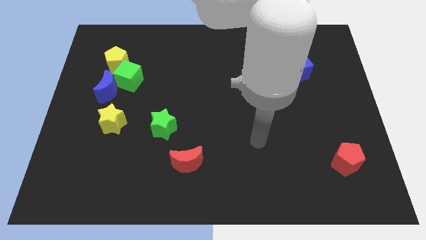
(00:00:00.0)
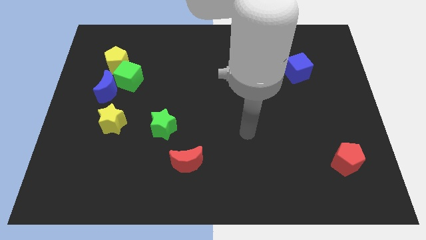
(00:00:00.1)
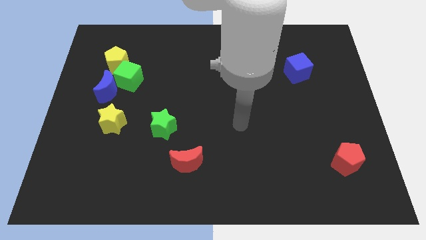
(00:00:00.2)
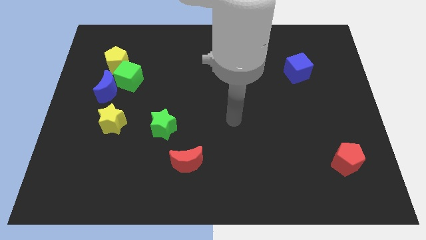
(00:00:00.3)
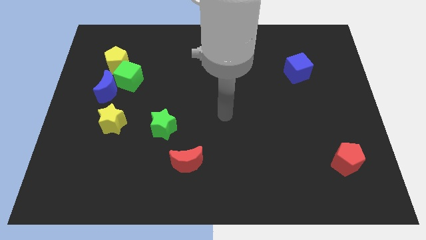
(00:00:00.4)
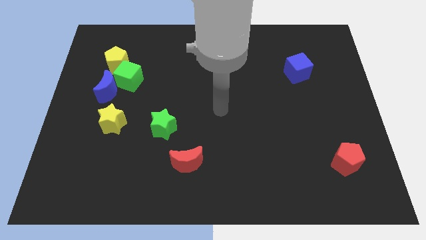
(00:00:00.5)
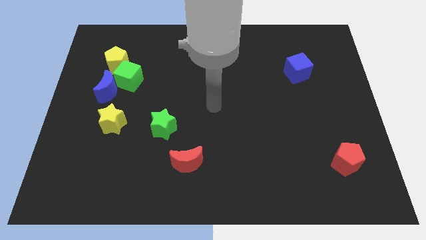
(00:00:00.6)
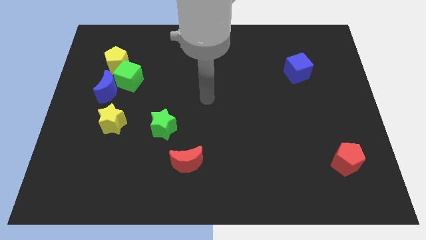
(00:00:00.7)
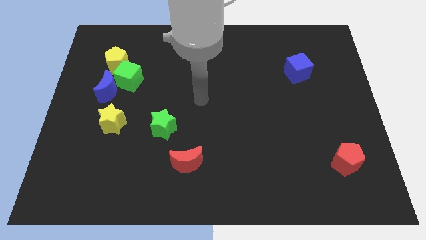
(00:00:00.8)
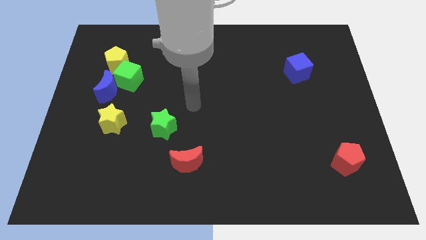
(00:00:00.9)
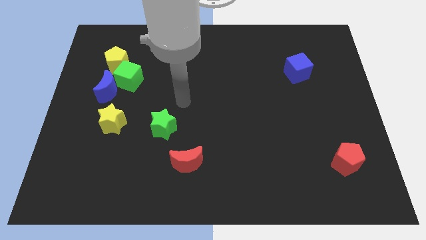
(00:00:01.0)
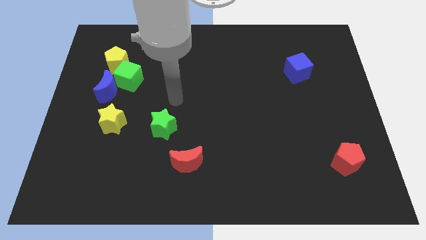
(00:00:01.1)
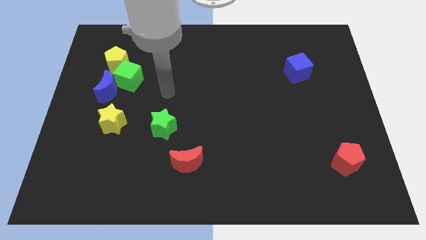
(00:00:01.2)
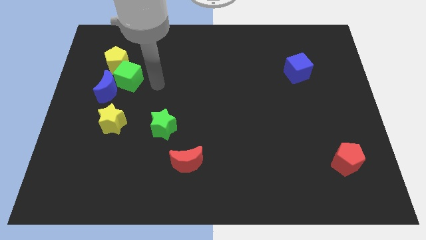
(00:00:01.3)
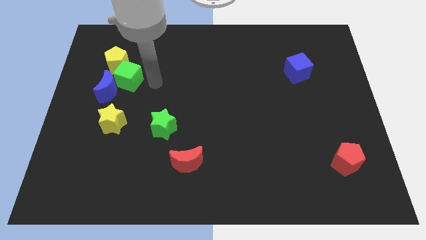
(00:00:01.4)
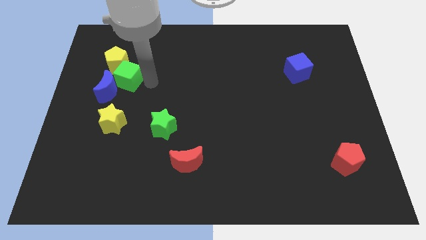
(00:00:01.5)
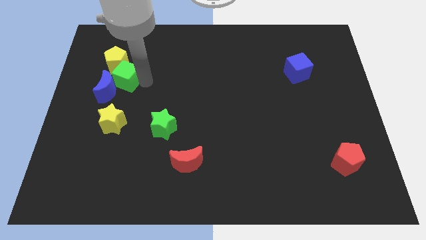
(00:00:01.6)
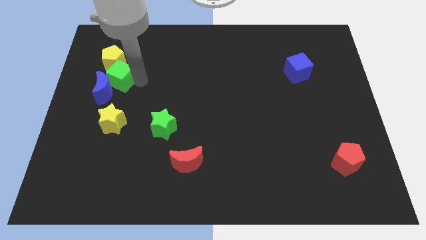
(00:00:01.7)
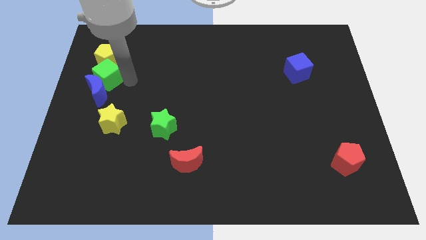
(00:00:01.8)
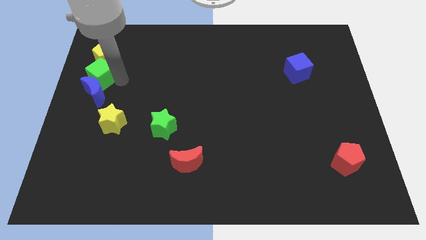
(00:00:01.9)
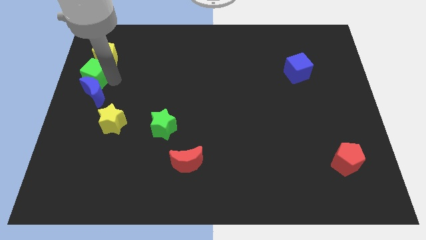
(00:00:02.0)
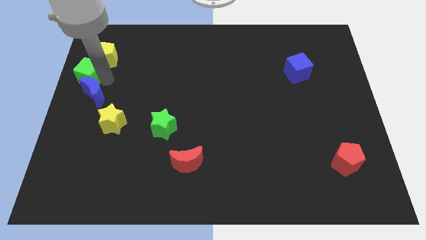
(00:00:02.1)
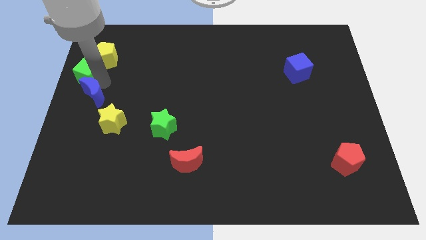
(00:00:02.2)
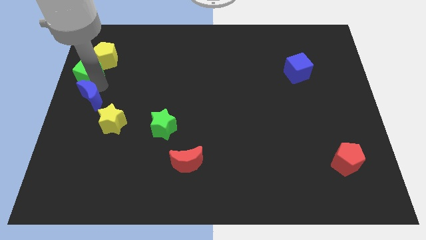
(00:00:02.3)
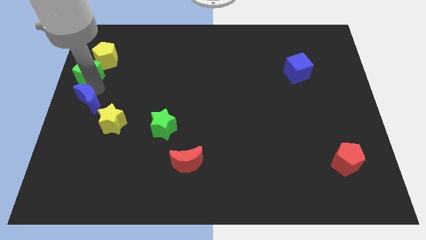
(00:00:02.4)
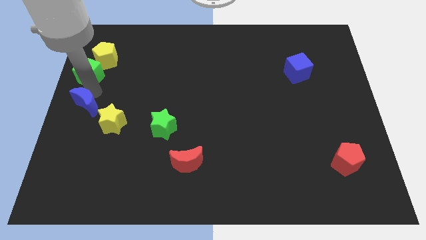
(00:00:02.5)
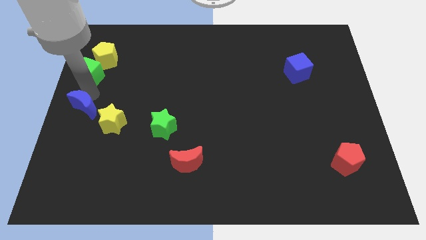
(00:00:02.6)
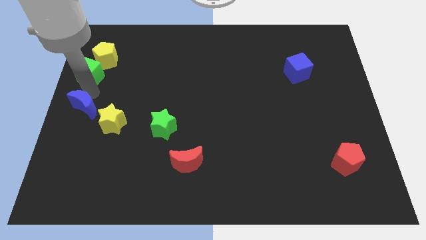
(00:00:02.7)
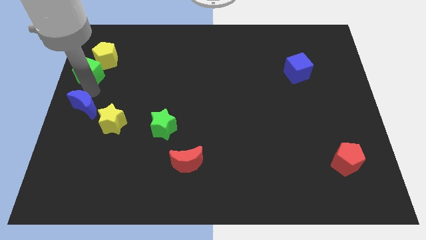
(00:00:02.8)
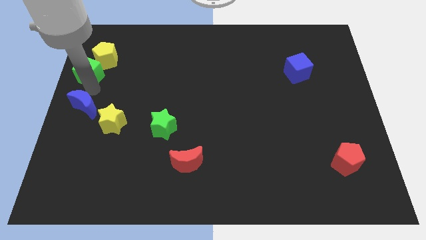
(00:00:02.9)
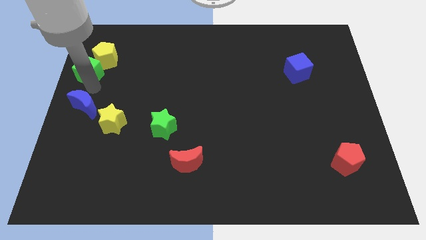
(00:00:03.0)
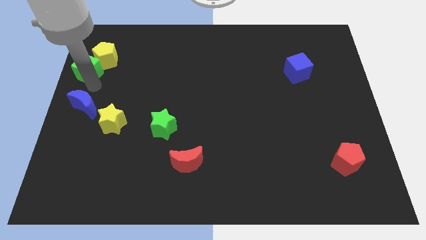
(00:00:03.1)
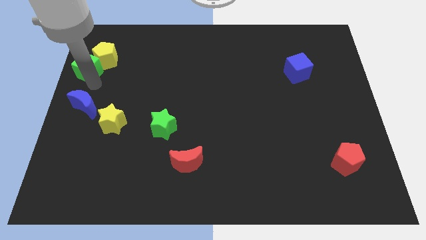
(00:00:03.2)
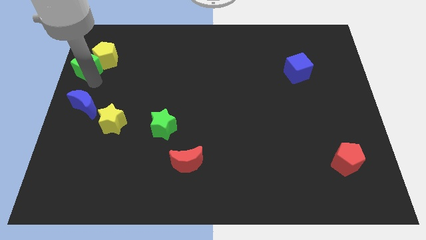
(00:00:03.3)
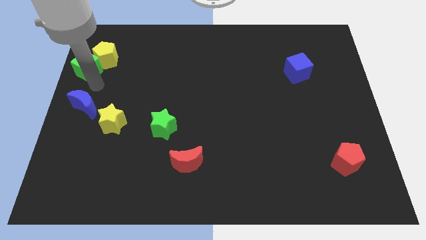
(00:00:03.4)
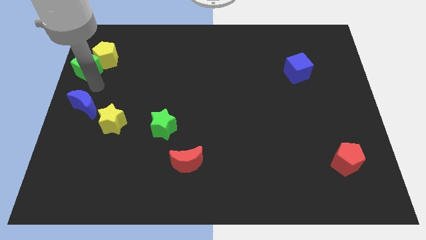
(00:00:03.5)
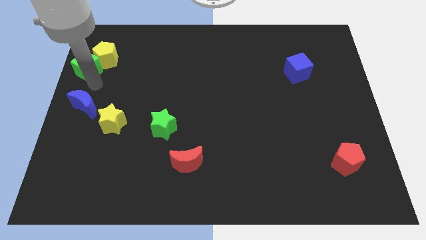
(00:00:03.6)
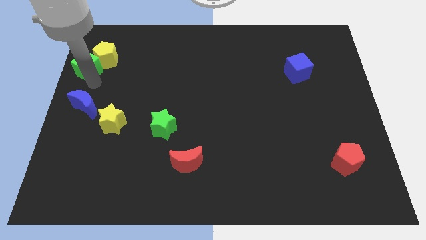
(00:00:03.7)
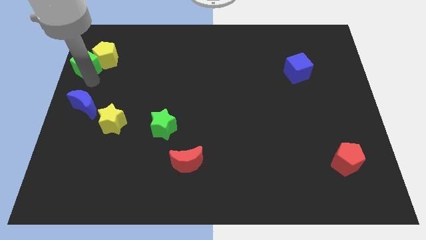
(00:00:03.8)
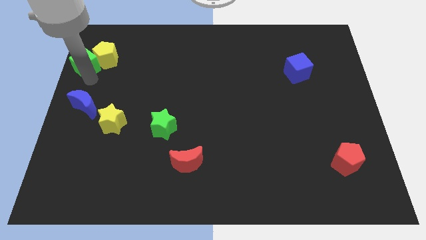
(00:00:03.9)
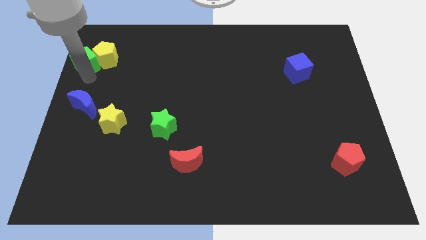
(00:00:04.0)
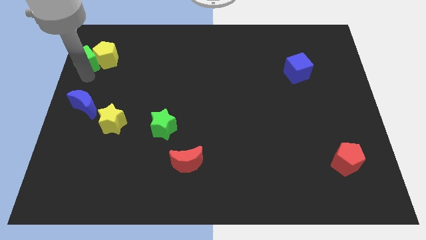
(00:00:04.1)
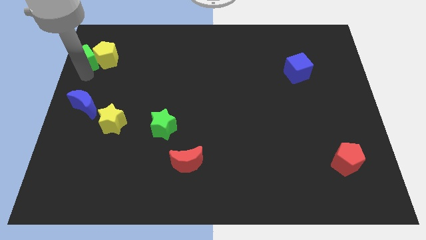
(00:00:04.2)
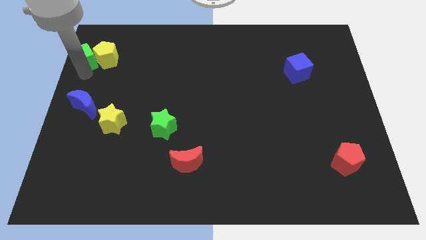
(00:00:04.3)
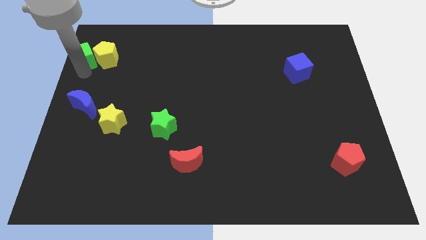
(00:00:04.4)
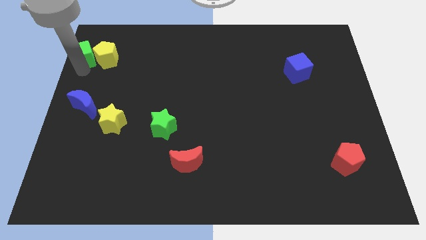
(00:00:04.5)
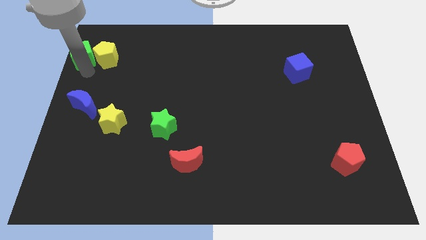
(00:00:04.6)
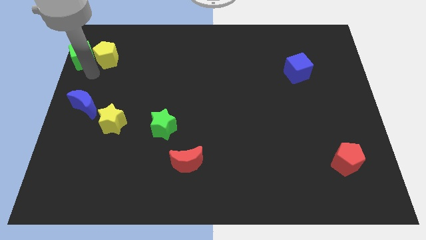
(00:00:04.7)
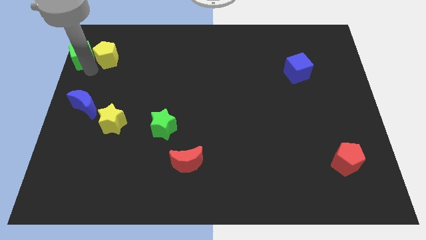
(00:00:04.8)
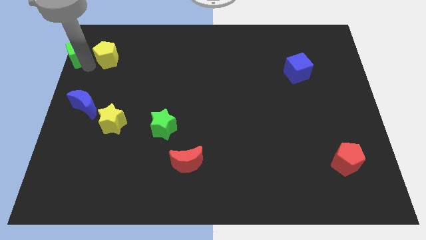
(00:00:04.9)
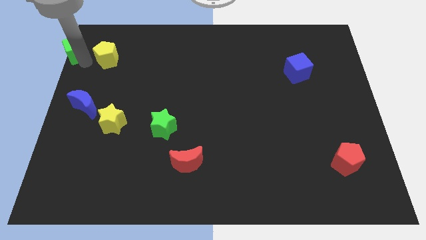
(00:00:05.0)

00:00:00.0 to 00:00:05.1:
push the green cube to the top left corner

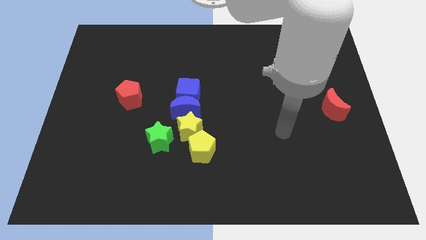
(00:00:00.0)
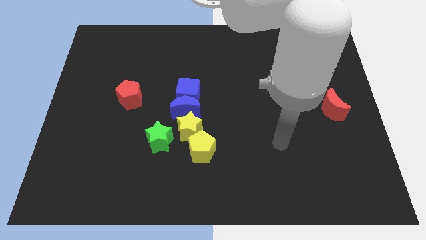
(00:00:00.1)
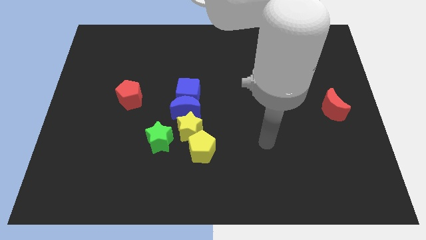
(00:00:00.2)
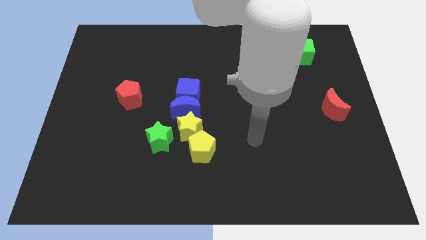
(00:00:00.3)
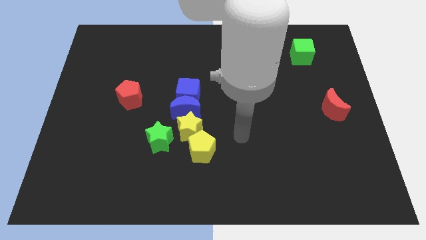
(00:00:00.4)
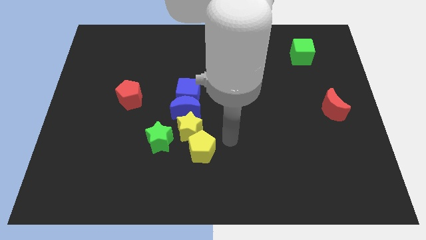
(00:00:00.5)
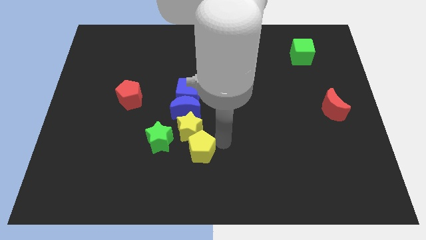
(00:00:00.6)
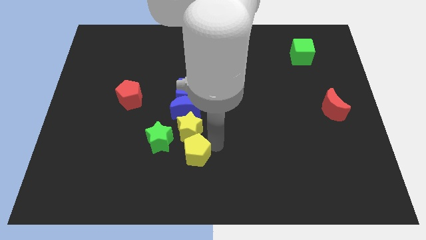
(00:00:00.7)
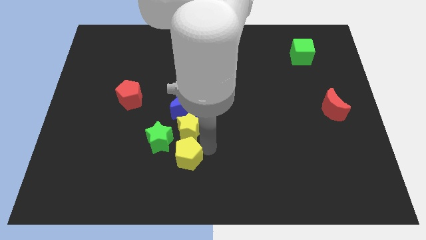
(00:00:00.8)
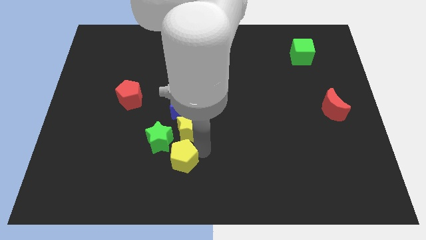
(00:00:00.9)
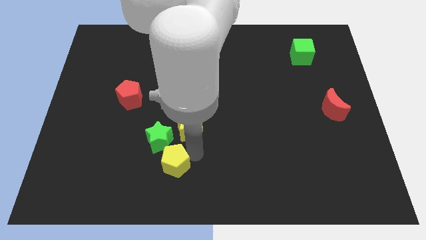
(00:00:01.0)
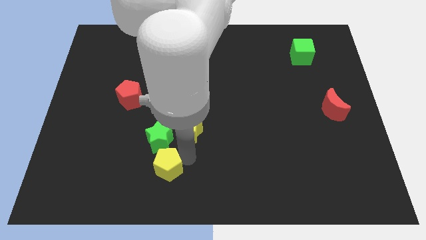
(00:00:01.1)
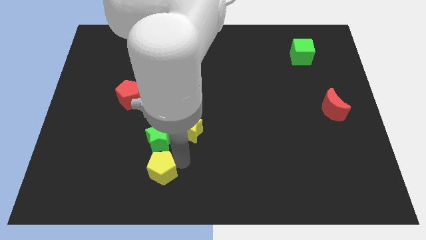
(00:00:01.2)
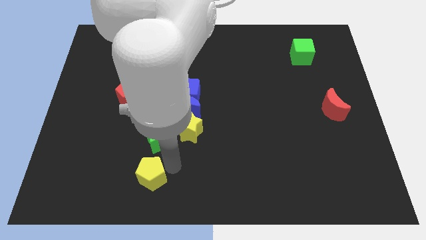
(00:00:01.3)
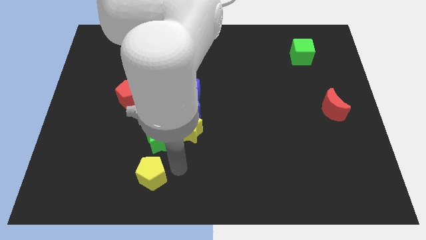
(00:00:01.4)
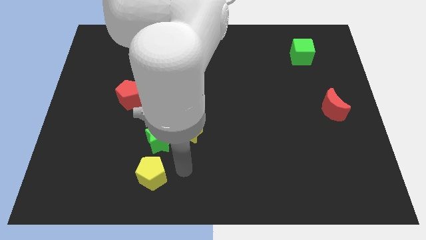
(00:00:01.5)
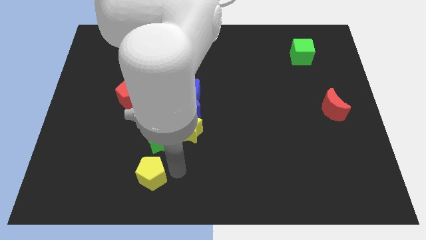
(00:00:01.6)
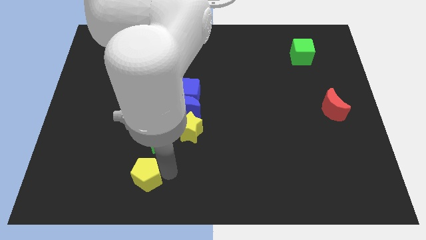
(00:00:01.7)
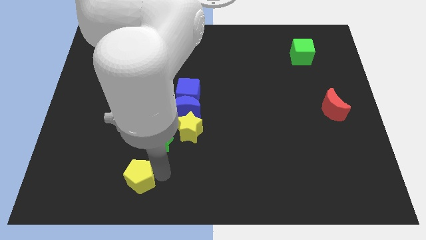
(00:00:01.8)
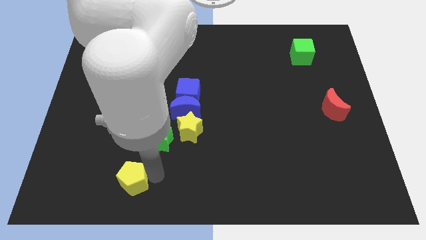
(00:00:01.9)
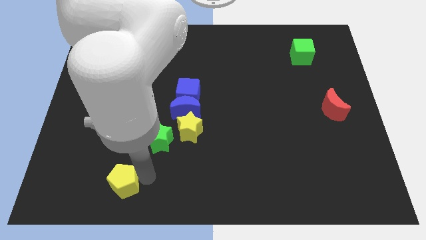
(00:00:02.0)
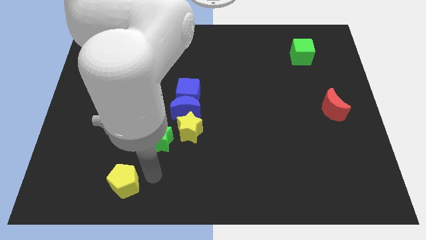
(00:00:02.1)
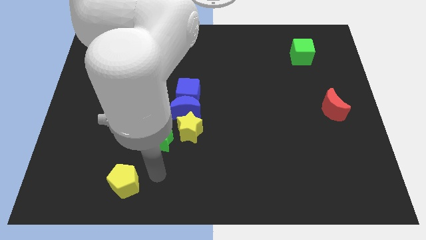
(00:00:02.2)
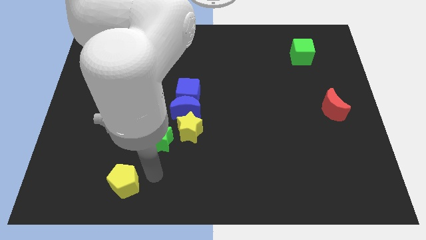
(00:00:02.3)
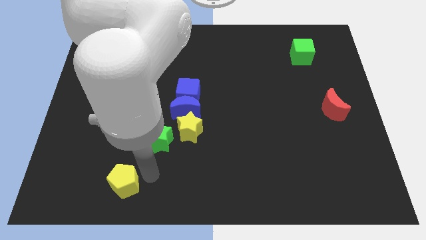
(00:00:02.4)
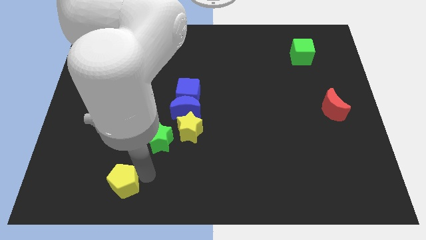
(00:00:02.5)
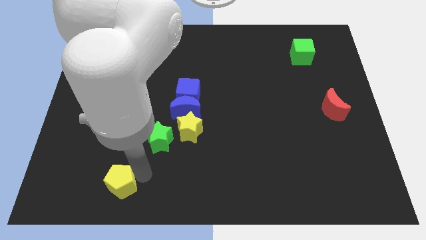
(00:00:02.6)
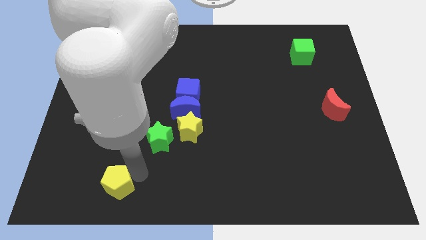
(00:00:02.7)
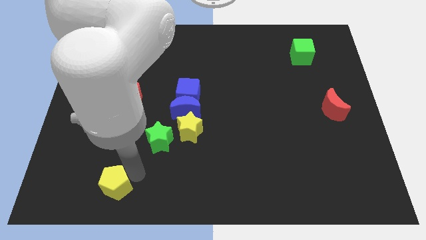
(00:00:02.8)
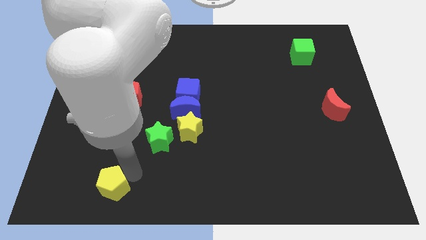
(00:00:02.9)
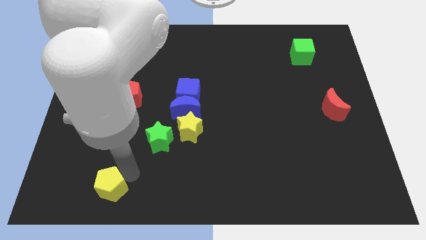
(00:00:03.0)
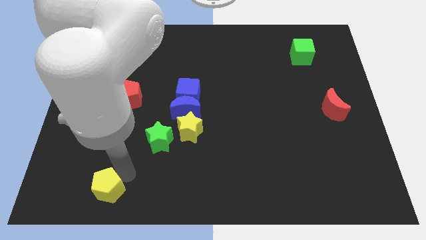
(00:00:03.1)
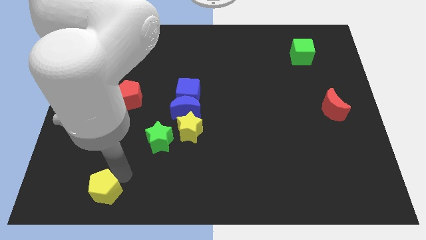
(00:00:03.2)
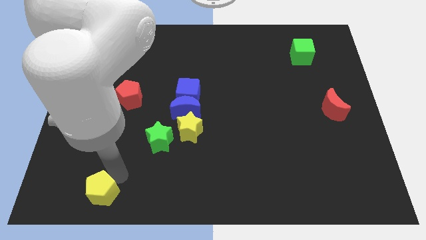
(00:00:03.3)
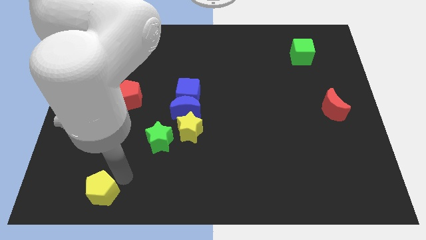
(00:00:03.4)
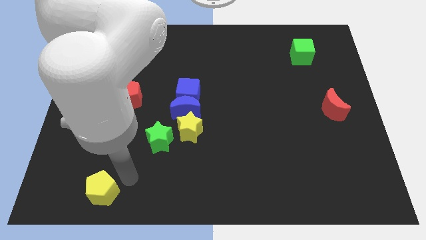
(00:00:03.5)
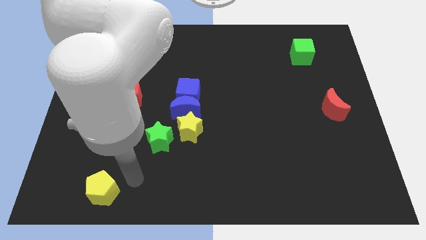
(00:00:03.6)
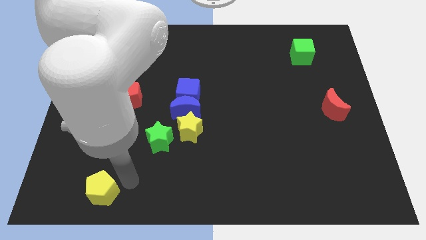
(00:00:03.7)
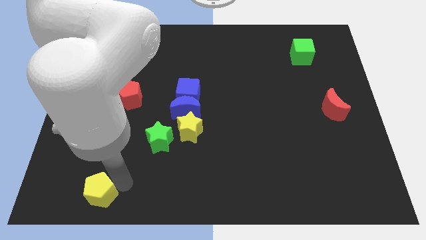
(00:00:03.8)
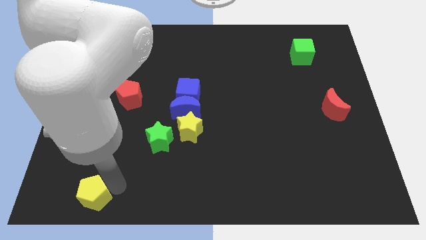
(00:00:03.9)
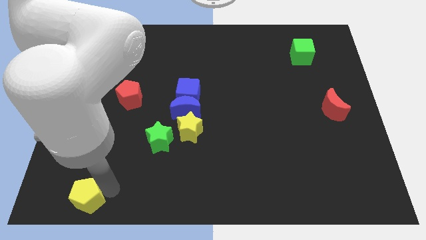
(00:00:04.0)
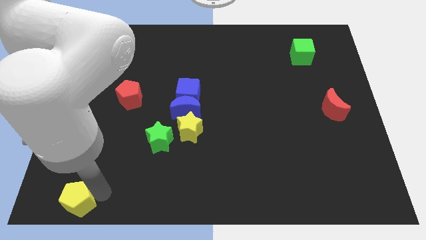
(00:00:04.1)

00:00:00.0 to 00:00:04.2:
push the yellow pentagon to the bottom left
